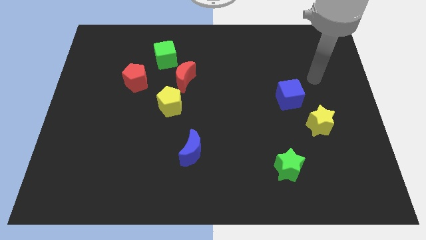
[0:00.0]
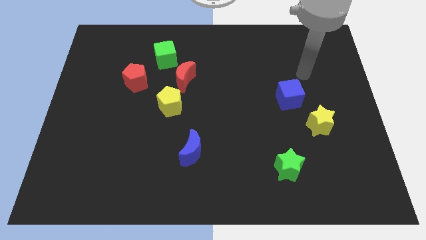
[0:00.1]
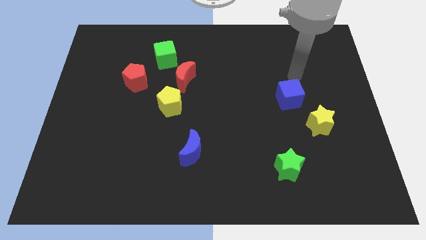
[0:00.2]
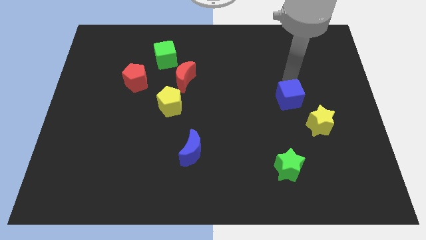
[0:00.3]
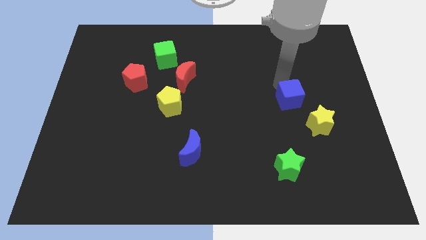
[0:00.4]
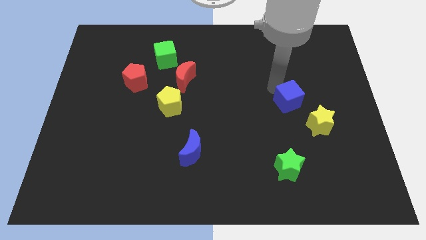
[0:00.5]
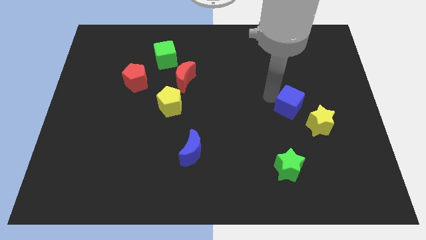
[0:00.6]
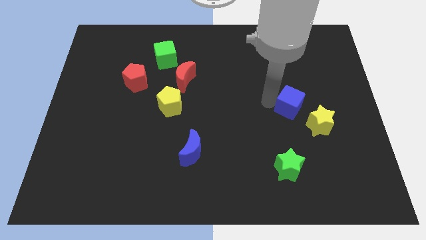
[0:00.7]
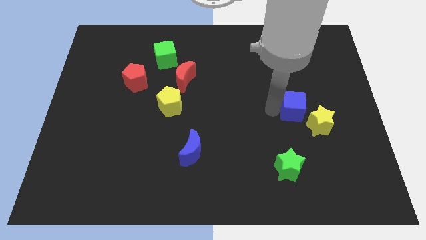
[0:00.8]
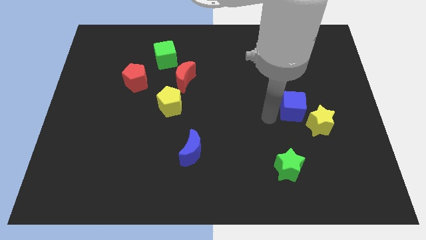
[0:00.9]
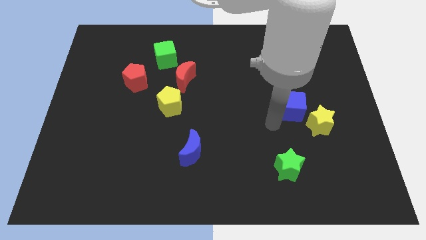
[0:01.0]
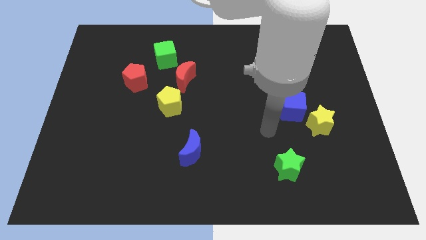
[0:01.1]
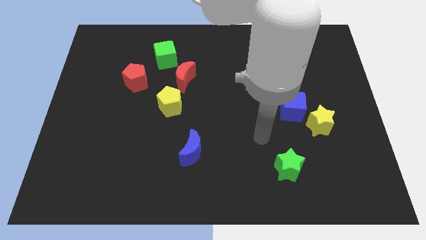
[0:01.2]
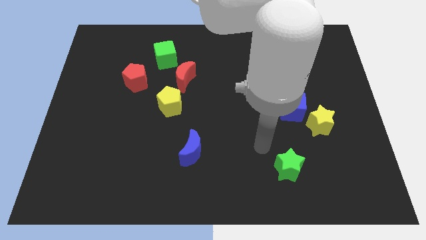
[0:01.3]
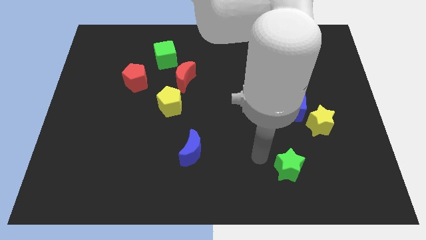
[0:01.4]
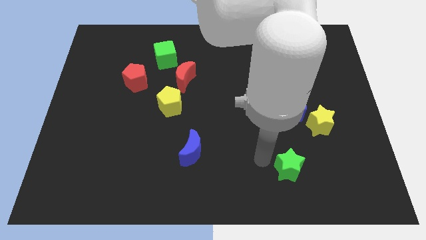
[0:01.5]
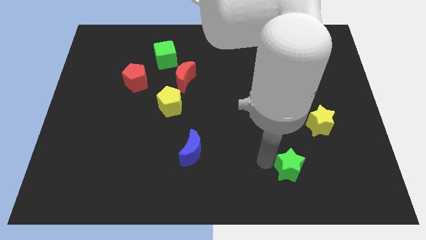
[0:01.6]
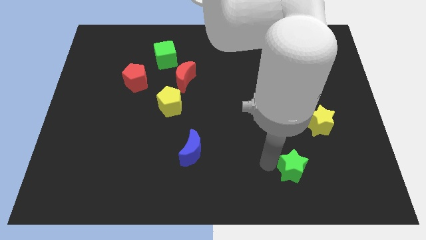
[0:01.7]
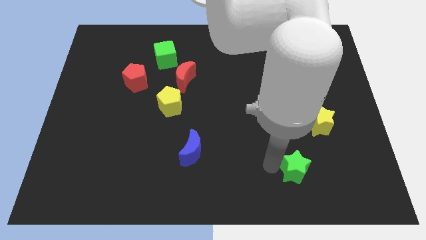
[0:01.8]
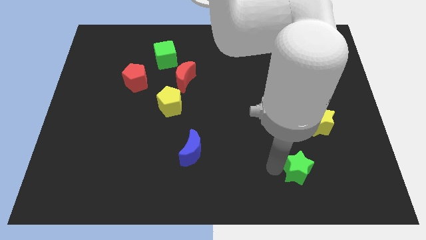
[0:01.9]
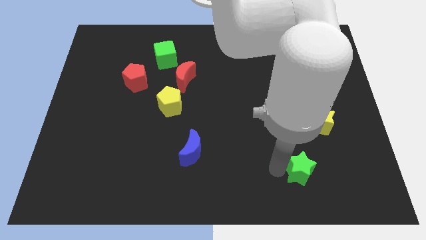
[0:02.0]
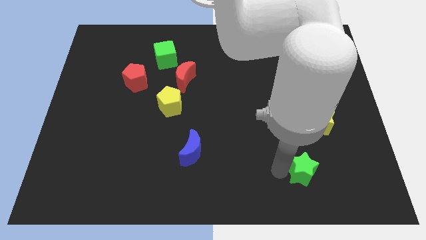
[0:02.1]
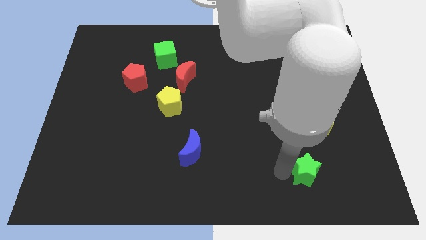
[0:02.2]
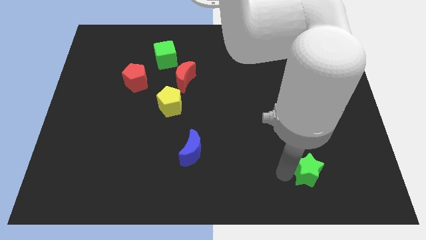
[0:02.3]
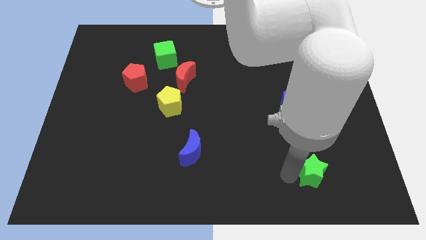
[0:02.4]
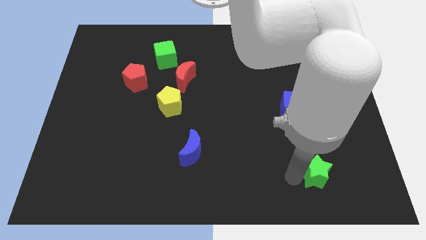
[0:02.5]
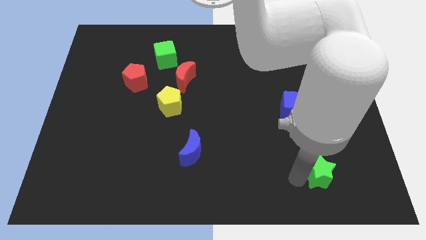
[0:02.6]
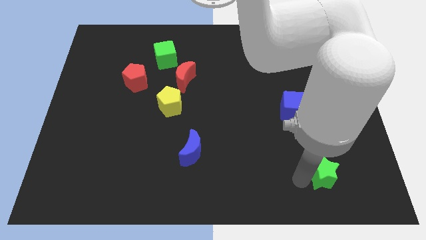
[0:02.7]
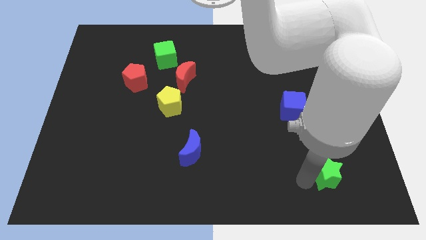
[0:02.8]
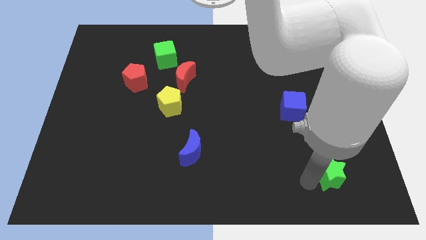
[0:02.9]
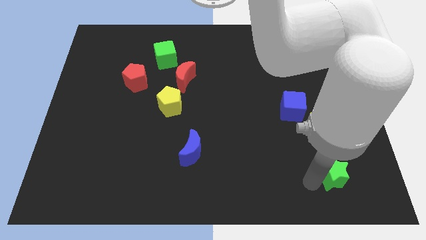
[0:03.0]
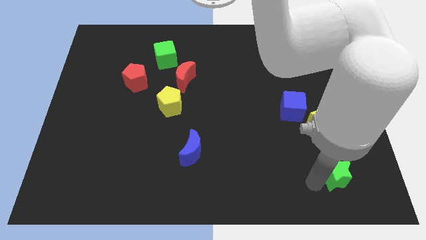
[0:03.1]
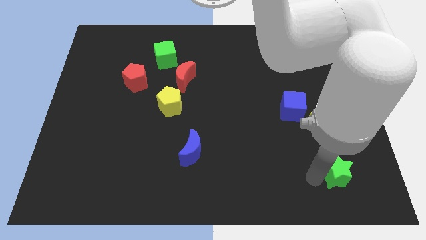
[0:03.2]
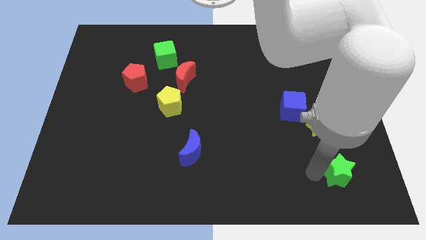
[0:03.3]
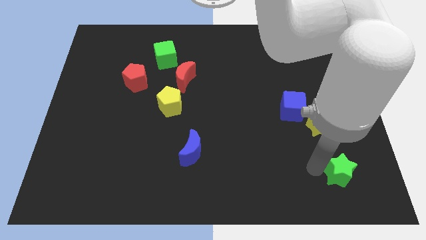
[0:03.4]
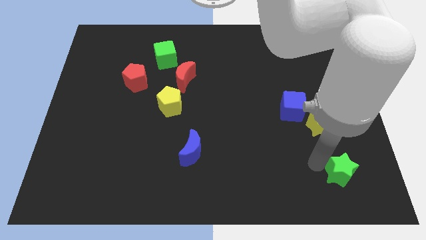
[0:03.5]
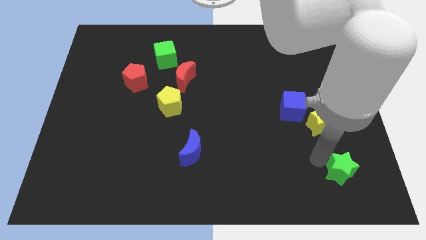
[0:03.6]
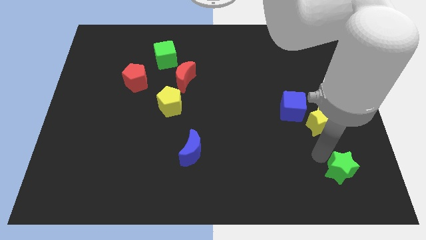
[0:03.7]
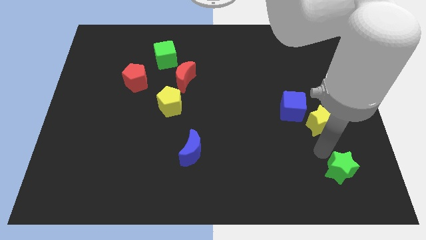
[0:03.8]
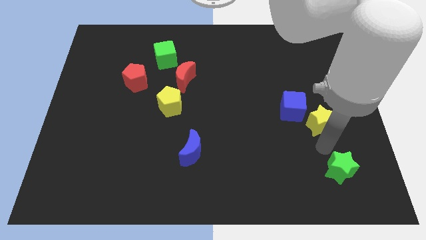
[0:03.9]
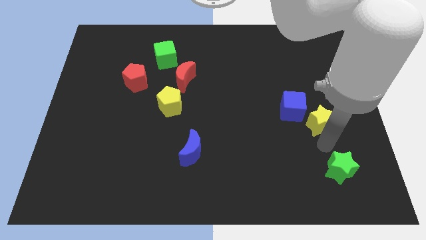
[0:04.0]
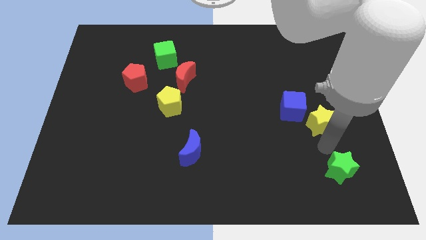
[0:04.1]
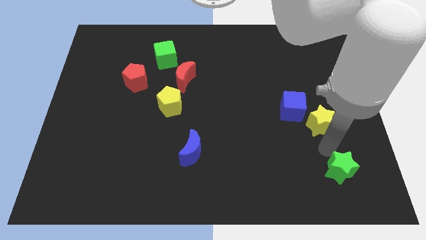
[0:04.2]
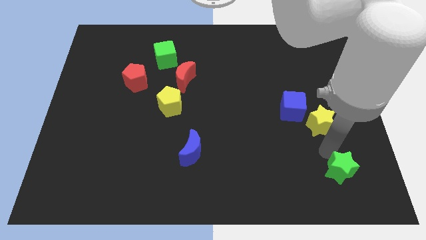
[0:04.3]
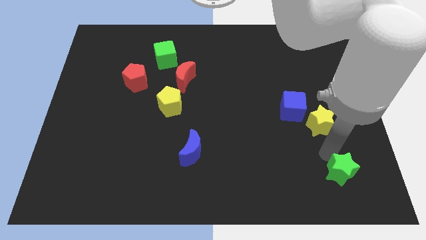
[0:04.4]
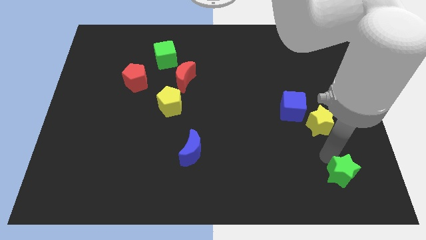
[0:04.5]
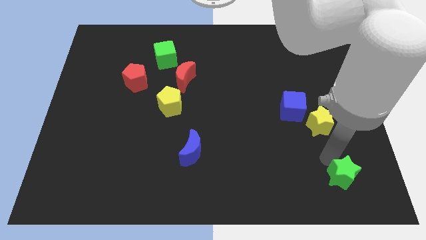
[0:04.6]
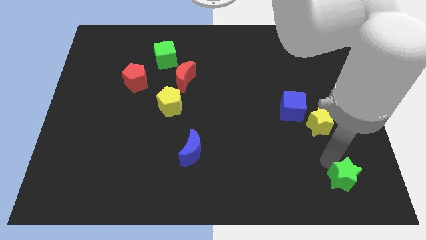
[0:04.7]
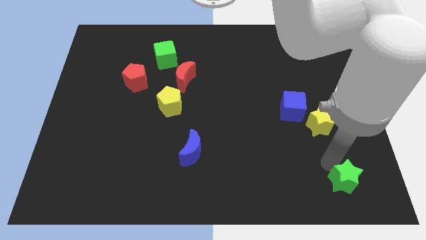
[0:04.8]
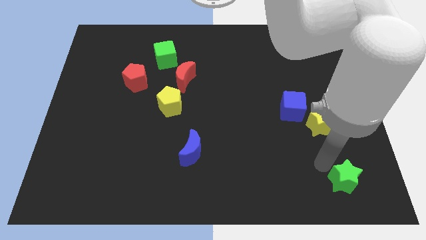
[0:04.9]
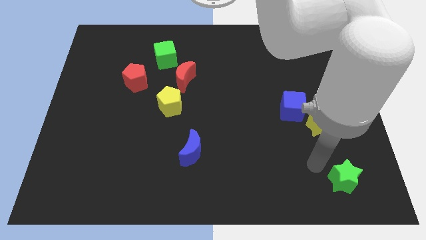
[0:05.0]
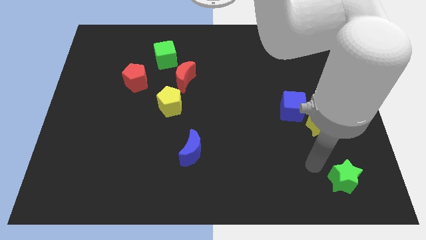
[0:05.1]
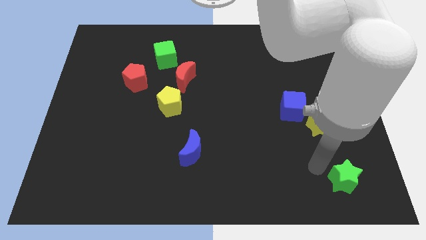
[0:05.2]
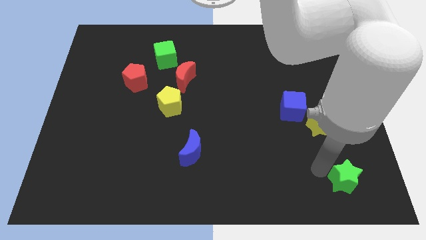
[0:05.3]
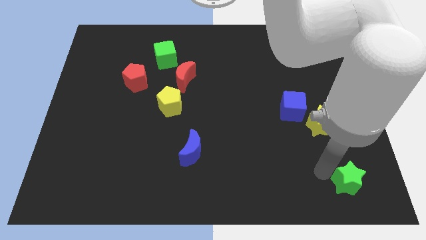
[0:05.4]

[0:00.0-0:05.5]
move the green star to the bottom right
